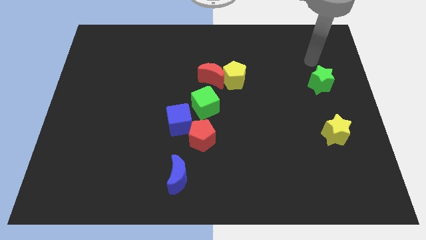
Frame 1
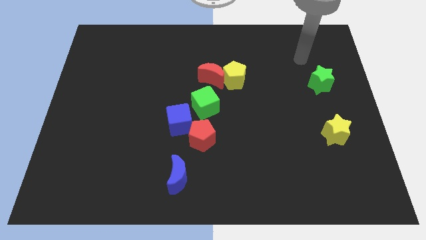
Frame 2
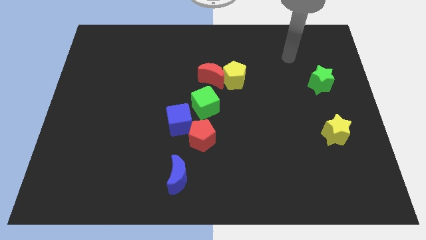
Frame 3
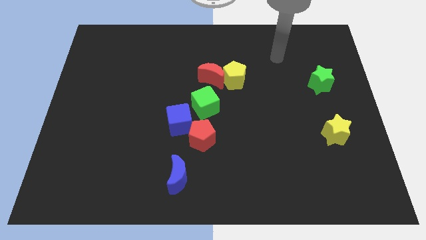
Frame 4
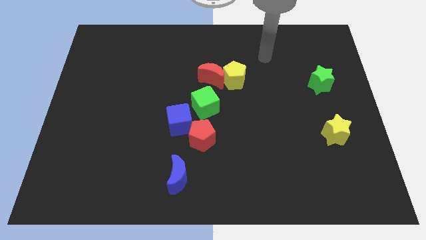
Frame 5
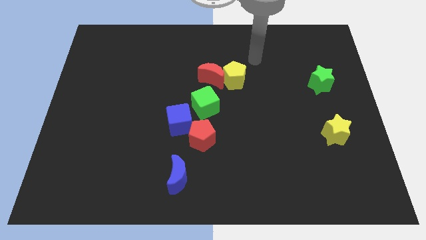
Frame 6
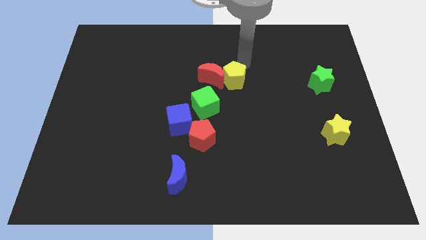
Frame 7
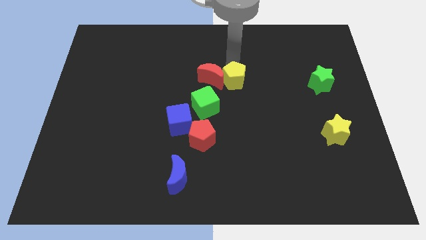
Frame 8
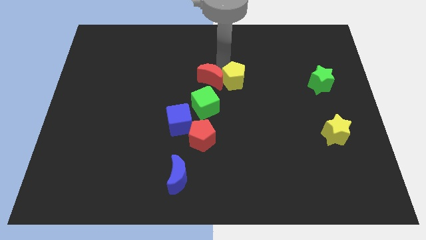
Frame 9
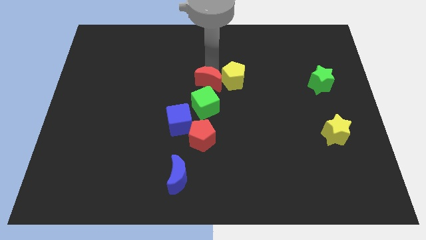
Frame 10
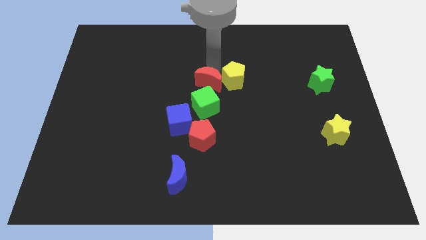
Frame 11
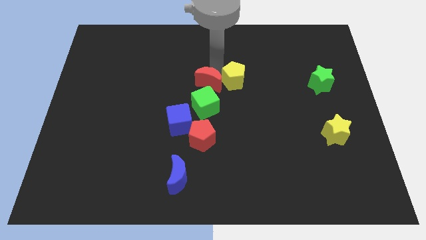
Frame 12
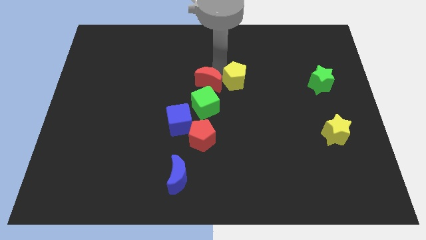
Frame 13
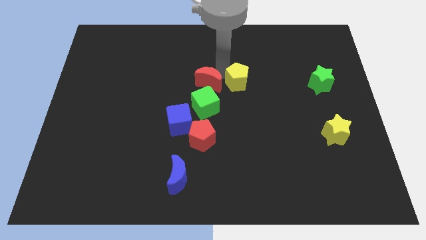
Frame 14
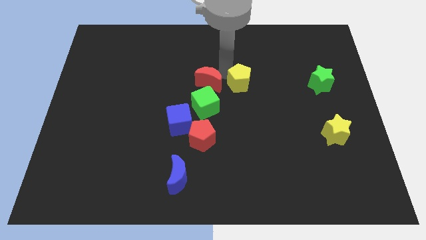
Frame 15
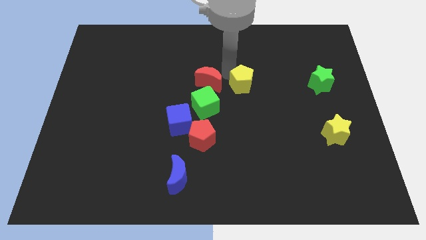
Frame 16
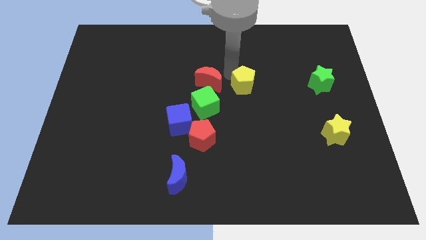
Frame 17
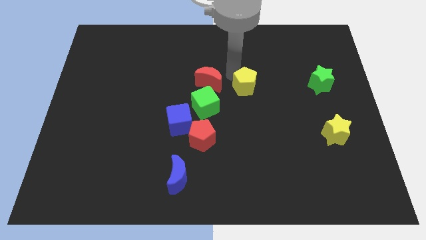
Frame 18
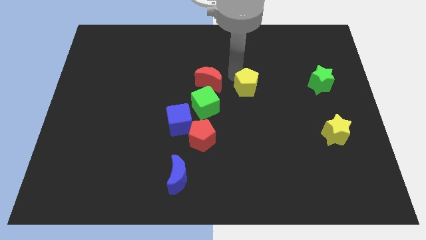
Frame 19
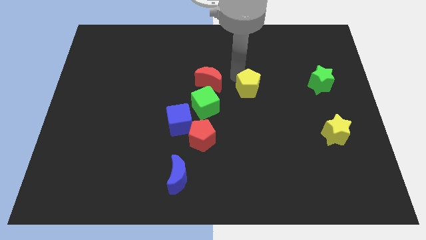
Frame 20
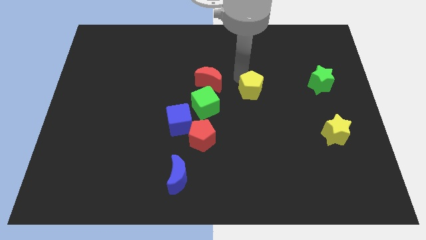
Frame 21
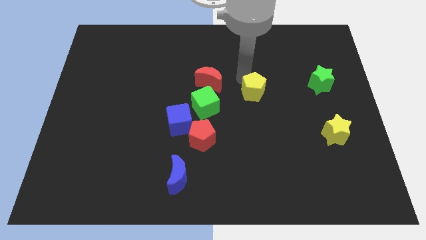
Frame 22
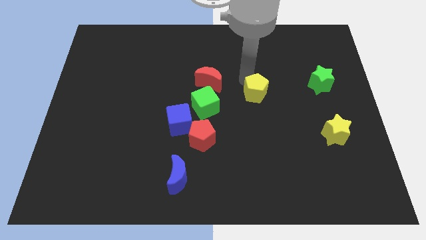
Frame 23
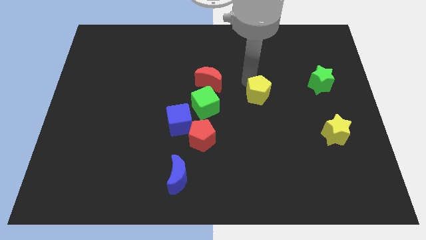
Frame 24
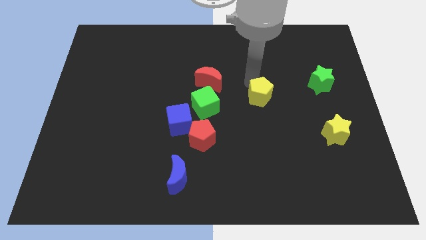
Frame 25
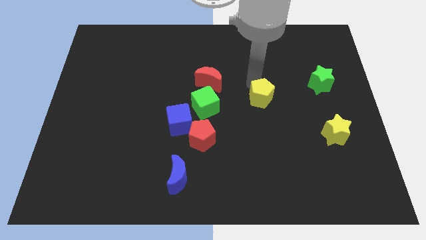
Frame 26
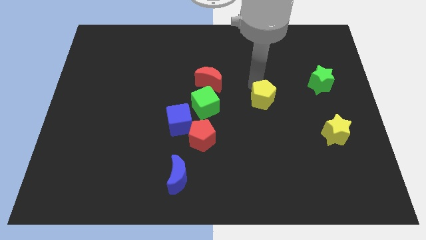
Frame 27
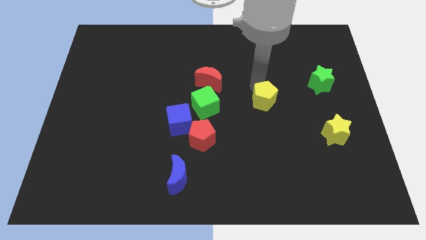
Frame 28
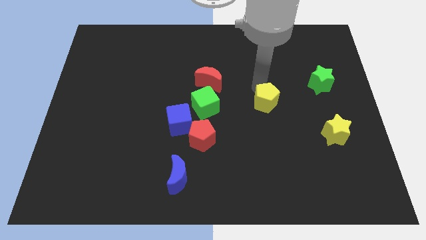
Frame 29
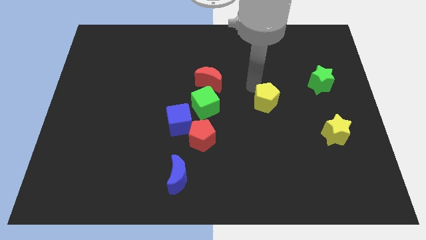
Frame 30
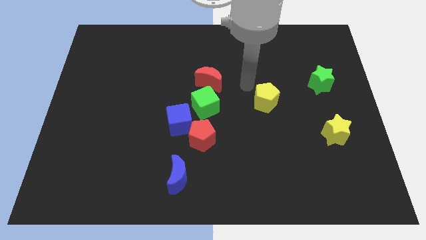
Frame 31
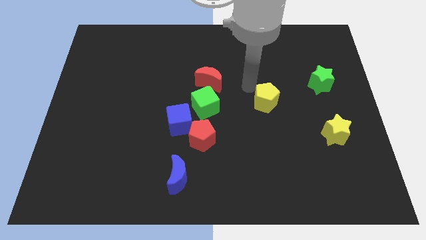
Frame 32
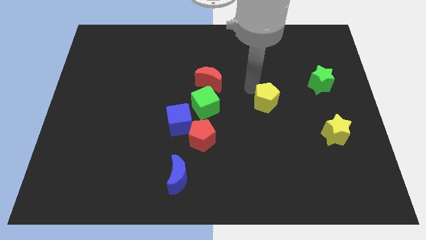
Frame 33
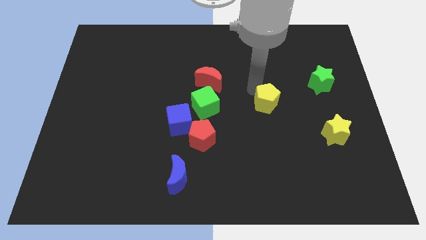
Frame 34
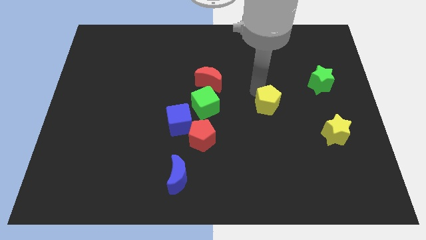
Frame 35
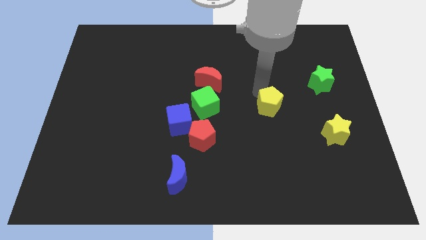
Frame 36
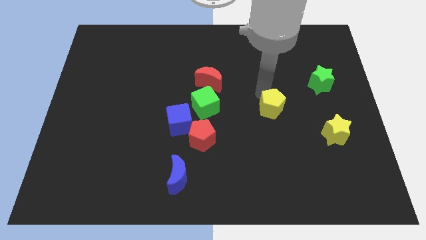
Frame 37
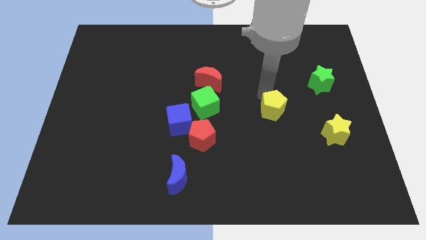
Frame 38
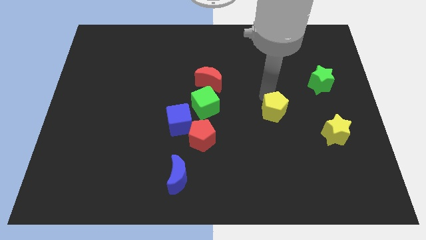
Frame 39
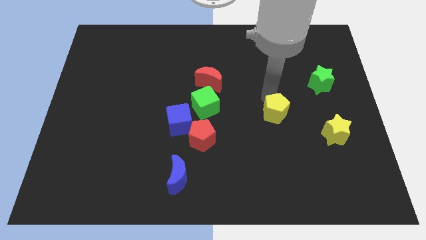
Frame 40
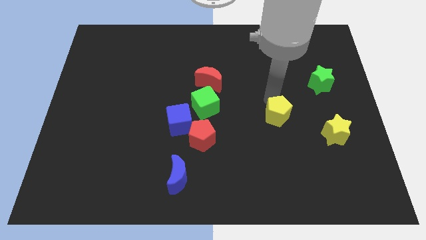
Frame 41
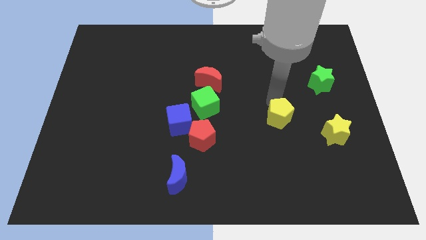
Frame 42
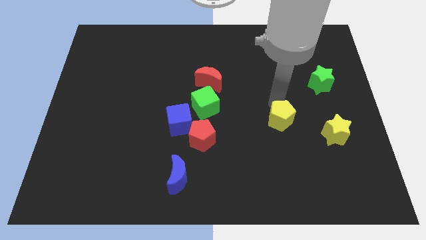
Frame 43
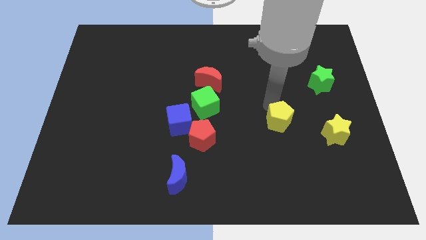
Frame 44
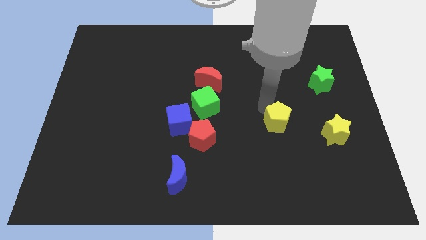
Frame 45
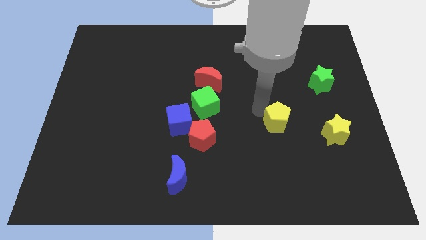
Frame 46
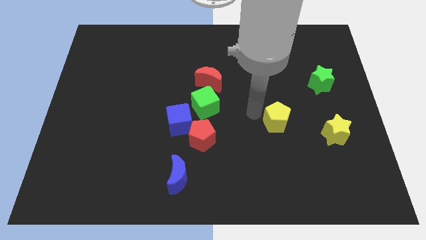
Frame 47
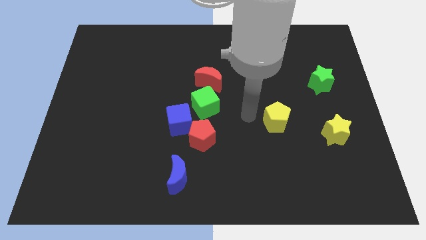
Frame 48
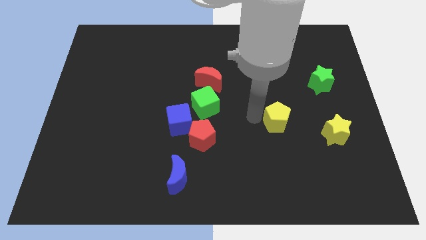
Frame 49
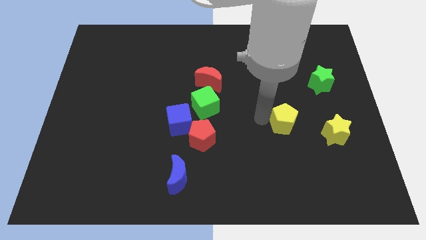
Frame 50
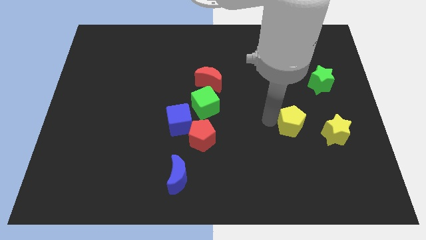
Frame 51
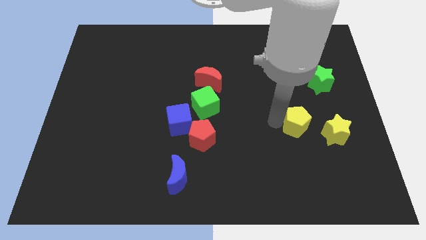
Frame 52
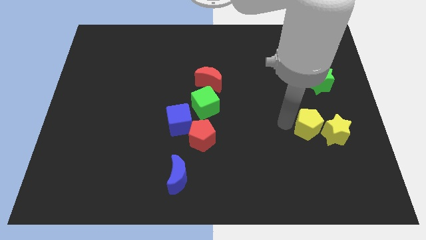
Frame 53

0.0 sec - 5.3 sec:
put the yellow pentagon towards the yellow star

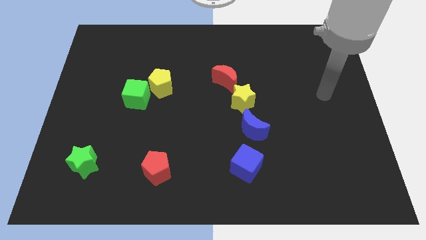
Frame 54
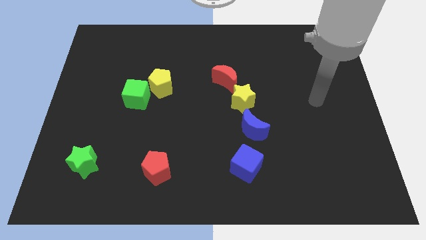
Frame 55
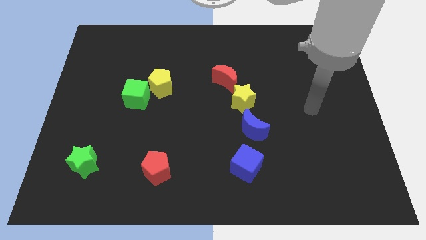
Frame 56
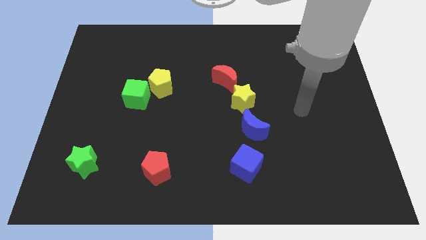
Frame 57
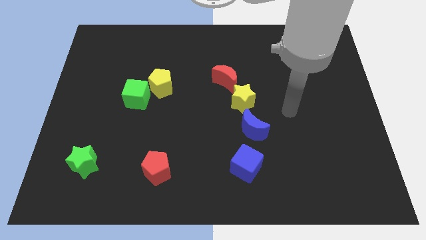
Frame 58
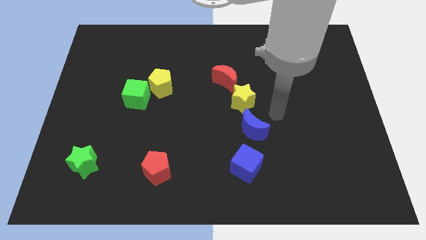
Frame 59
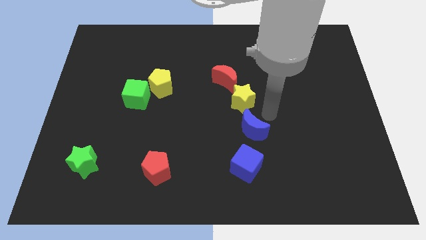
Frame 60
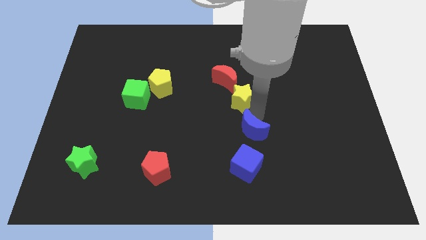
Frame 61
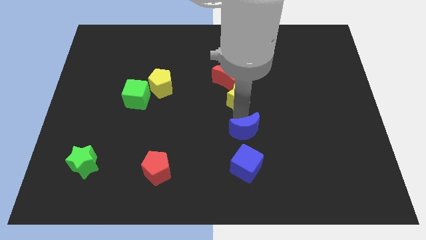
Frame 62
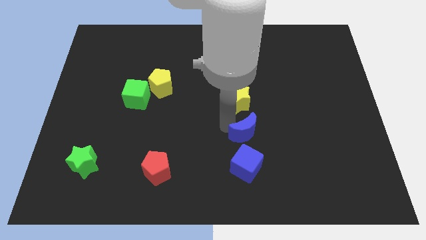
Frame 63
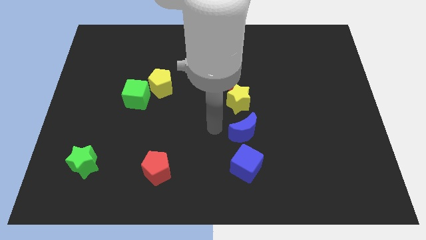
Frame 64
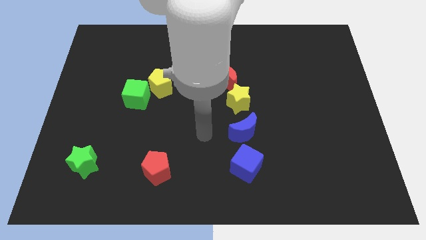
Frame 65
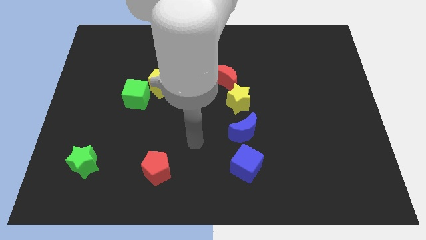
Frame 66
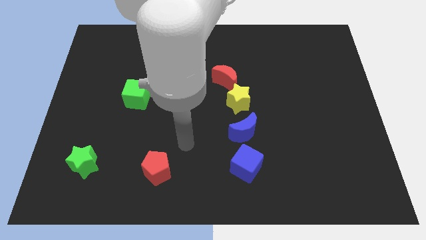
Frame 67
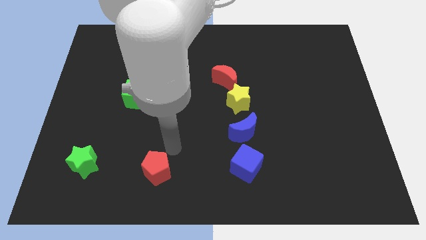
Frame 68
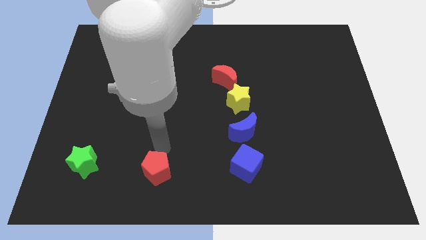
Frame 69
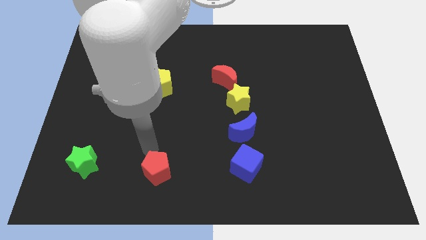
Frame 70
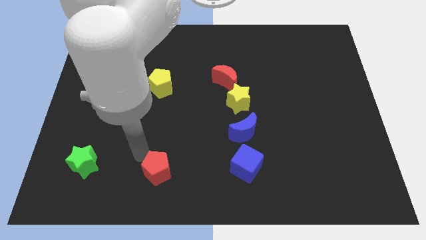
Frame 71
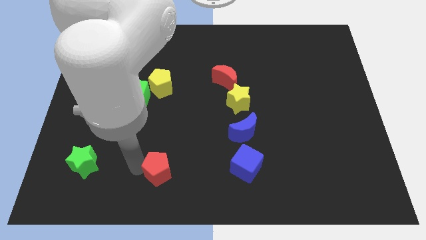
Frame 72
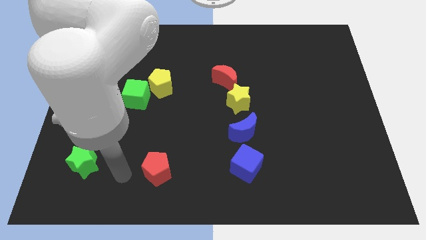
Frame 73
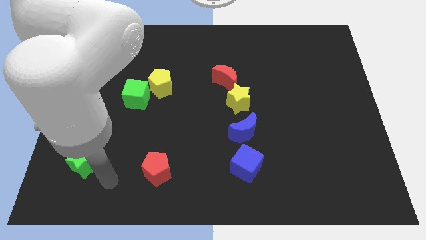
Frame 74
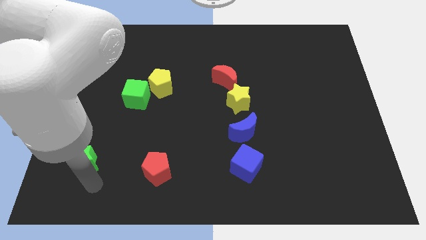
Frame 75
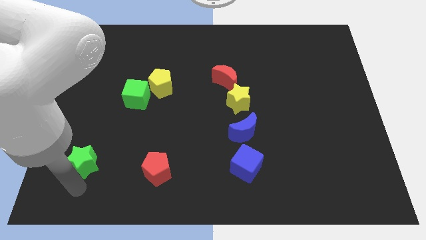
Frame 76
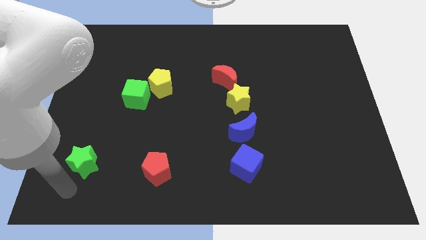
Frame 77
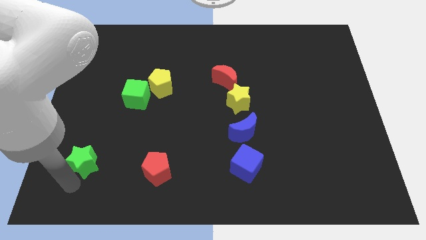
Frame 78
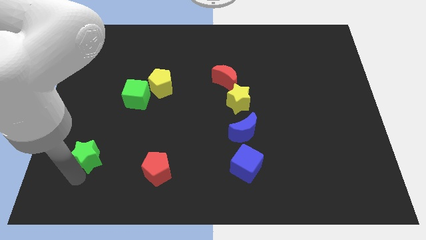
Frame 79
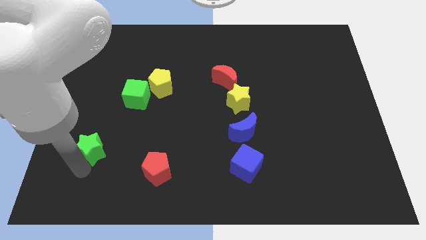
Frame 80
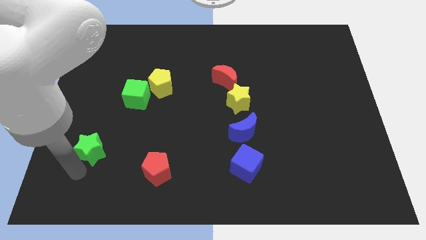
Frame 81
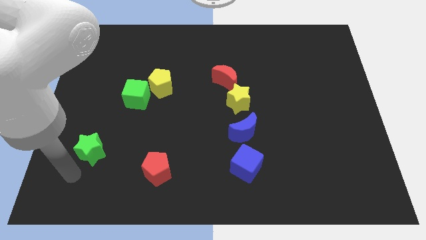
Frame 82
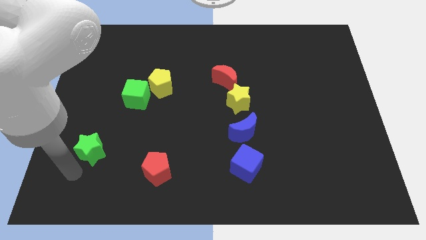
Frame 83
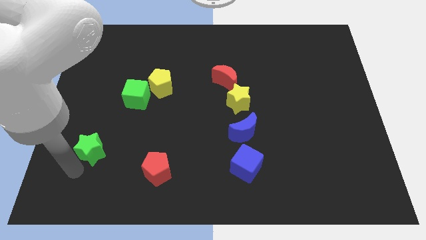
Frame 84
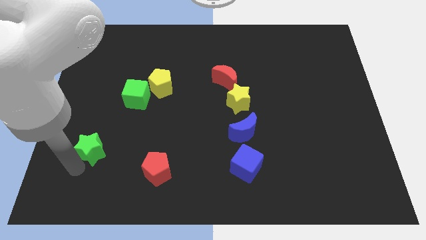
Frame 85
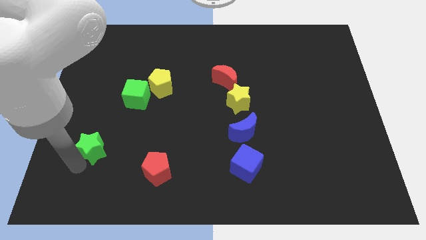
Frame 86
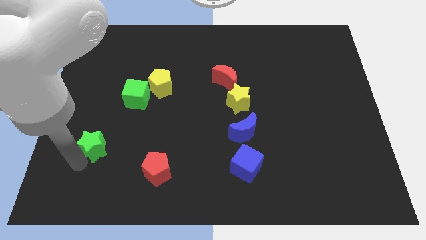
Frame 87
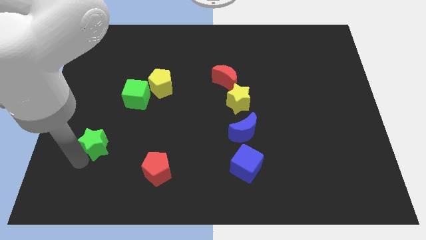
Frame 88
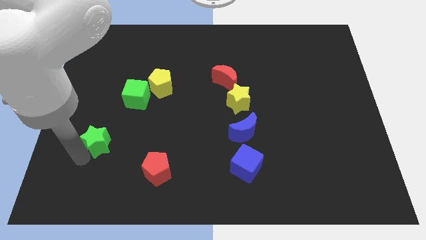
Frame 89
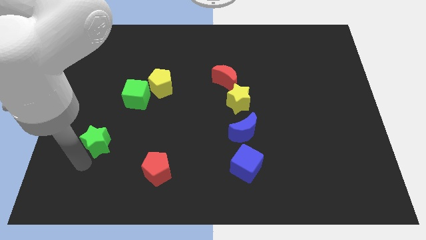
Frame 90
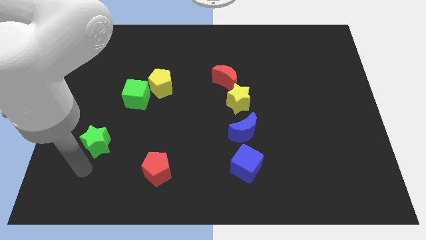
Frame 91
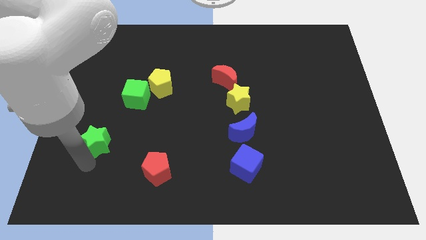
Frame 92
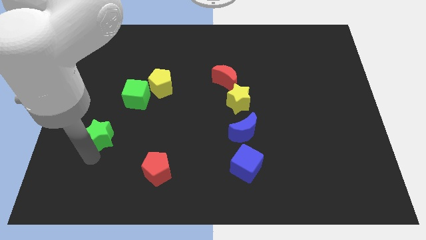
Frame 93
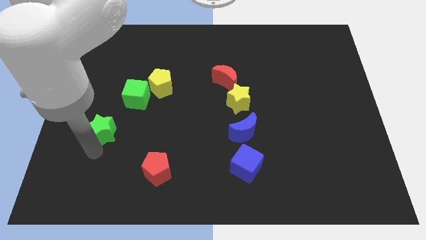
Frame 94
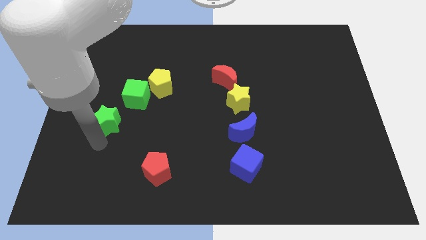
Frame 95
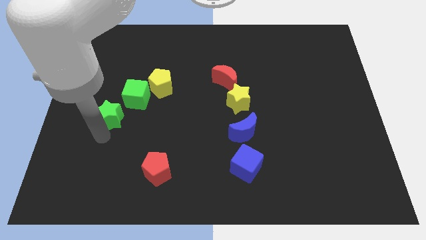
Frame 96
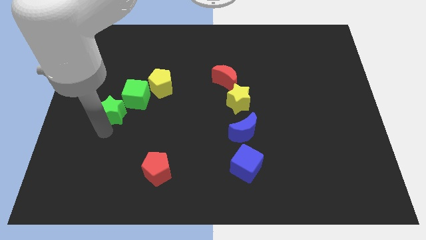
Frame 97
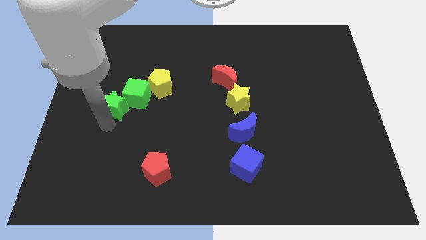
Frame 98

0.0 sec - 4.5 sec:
move the green star next to the green cube
